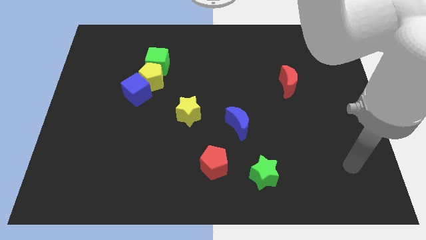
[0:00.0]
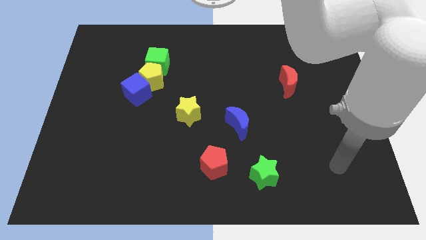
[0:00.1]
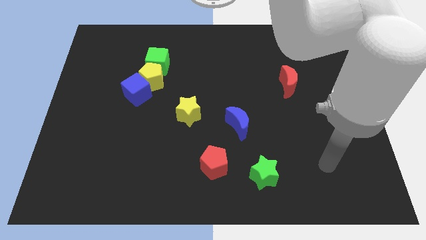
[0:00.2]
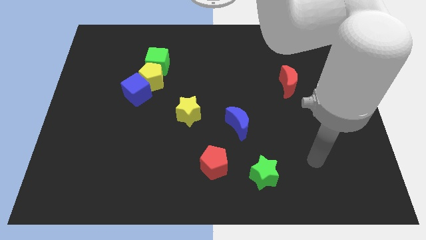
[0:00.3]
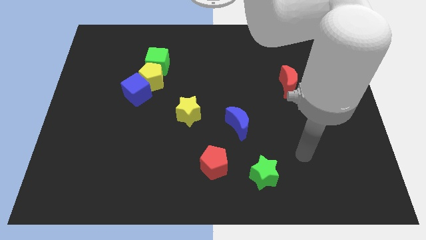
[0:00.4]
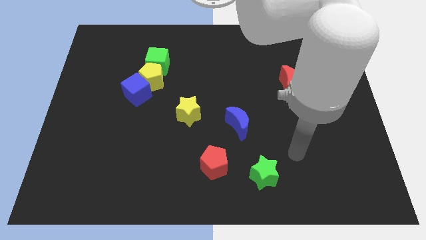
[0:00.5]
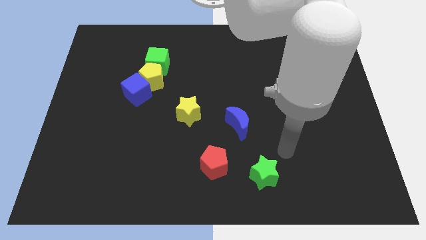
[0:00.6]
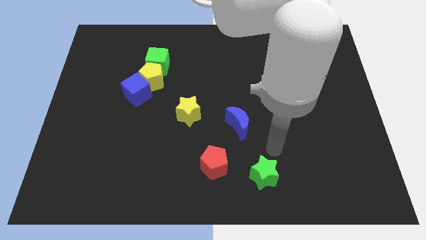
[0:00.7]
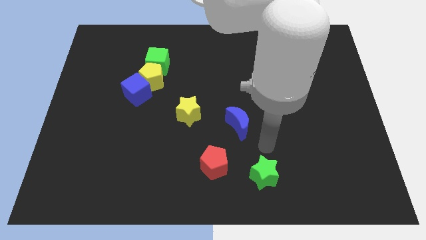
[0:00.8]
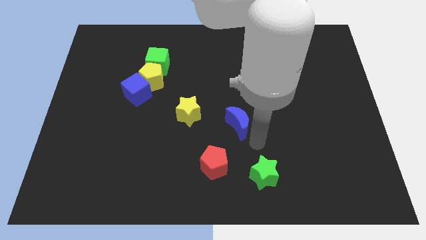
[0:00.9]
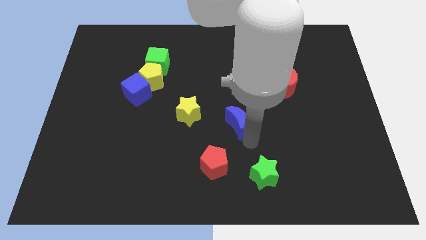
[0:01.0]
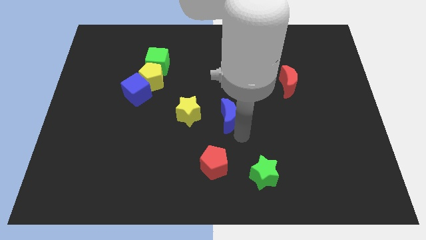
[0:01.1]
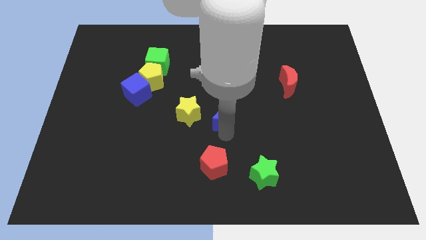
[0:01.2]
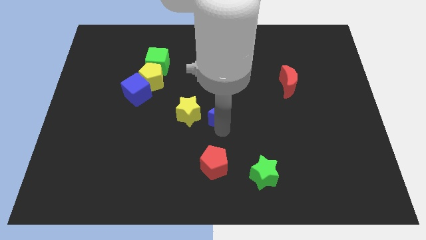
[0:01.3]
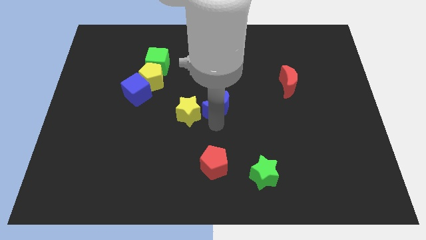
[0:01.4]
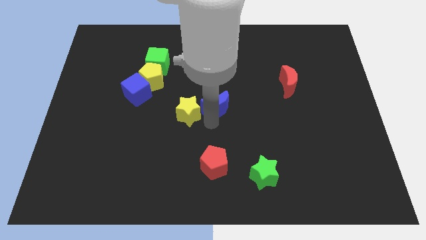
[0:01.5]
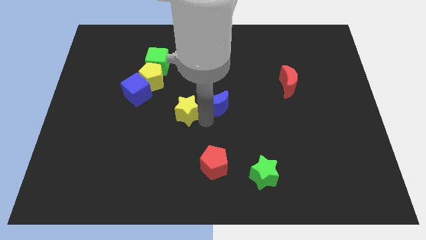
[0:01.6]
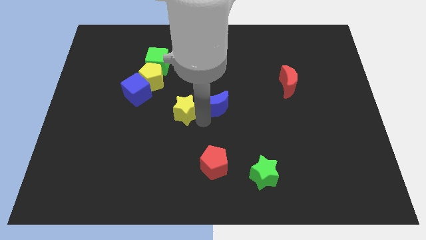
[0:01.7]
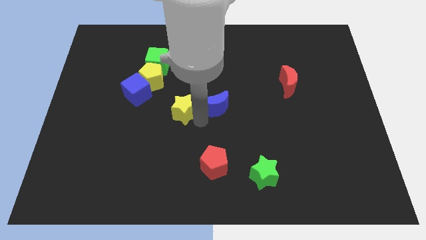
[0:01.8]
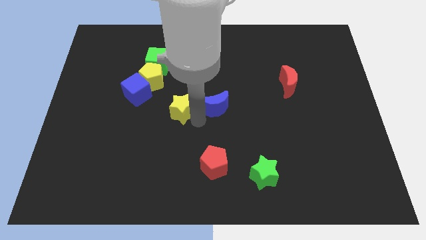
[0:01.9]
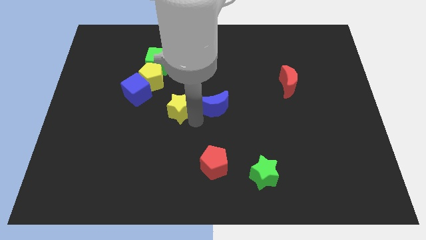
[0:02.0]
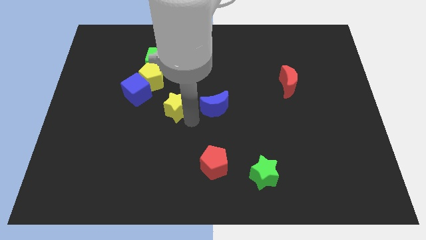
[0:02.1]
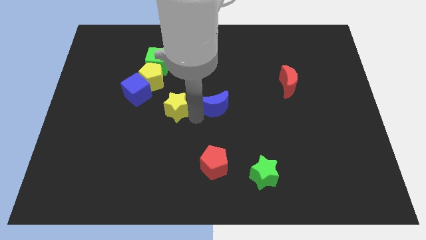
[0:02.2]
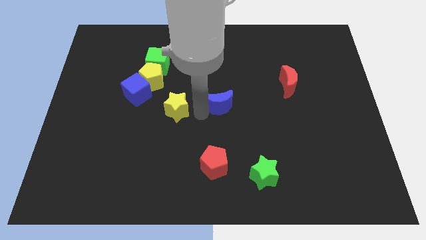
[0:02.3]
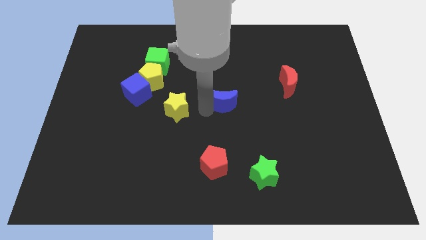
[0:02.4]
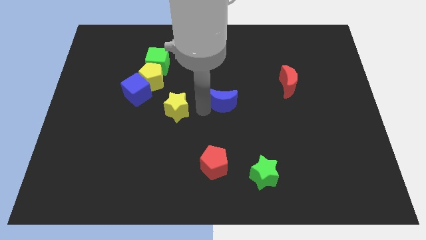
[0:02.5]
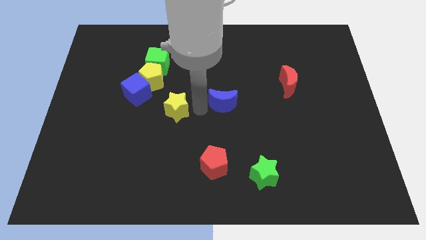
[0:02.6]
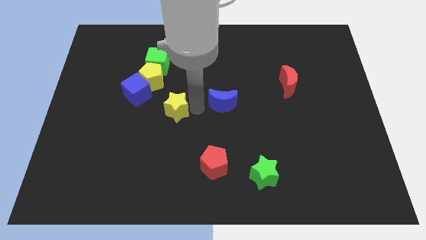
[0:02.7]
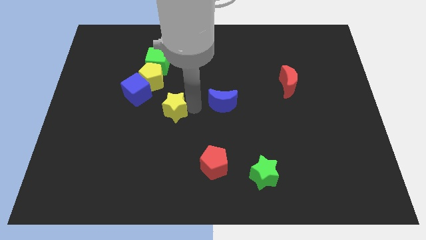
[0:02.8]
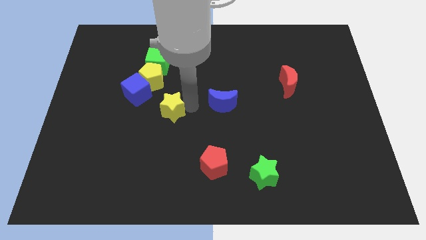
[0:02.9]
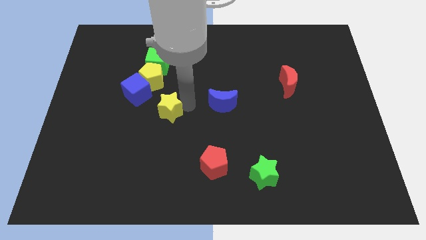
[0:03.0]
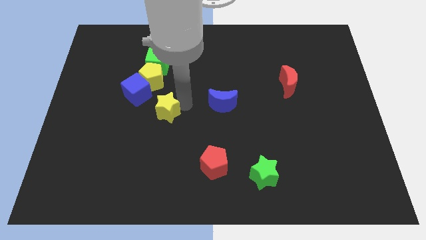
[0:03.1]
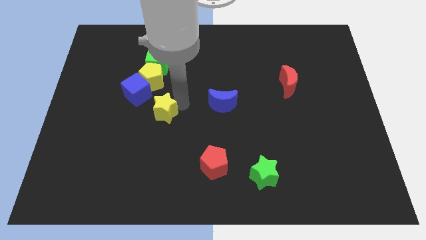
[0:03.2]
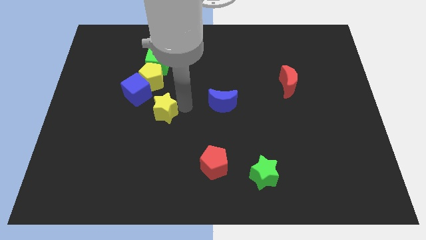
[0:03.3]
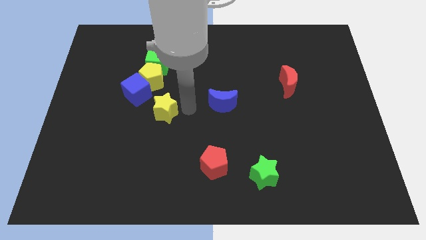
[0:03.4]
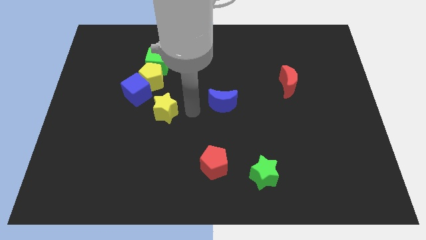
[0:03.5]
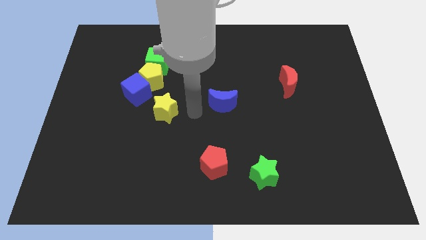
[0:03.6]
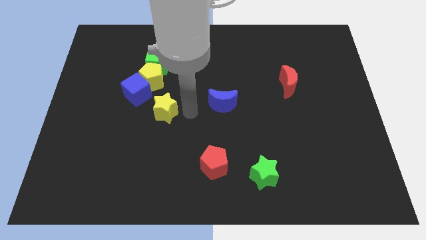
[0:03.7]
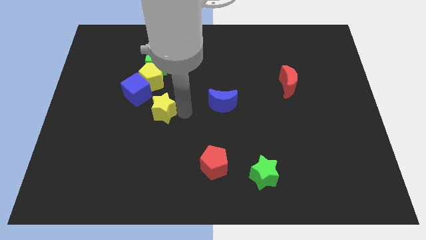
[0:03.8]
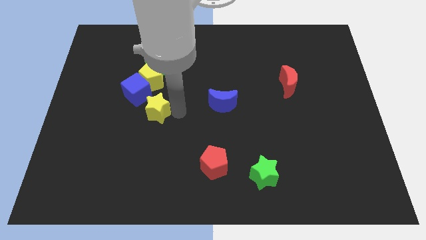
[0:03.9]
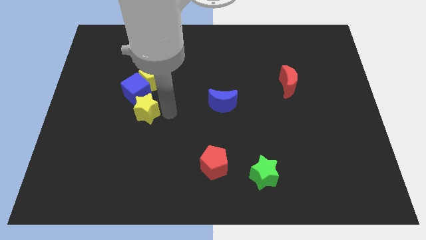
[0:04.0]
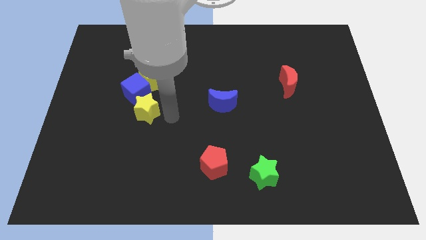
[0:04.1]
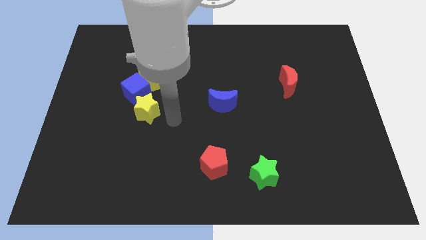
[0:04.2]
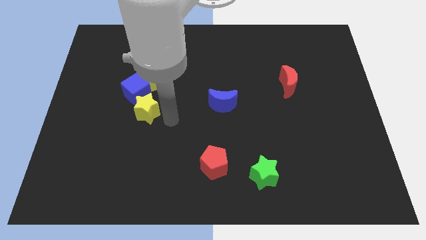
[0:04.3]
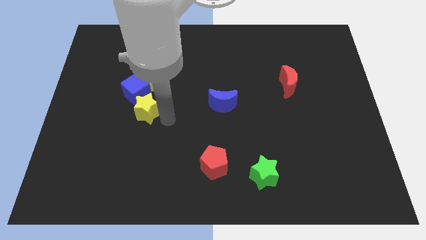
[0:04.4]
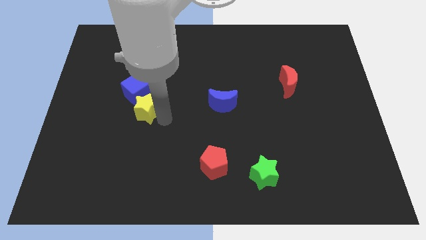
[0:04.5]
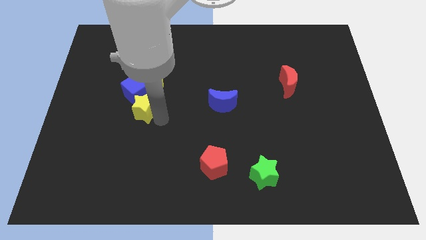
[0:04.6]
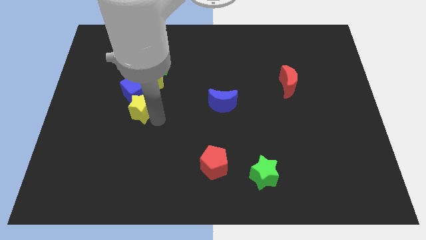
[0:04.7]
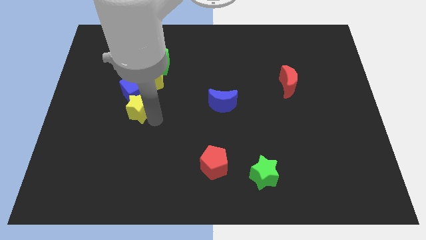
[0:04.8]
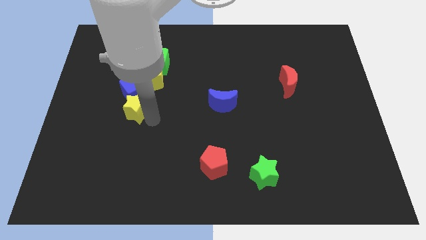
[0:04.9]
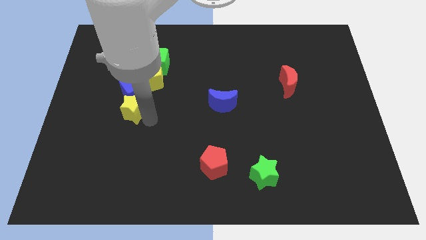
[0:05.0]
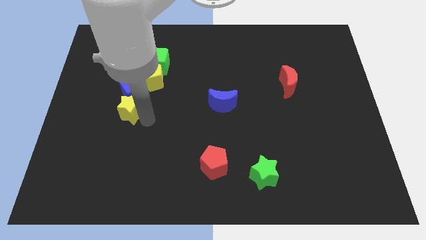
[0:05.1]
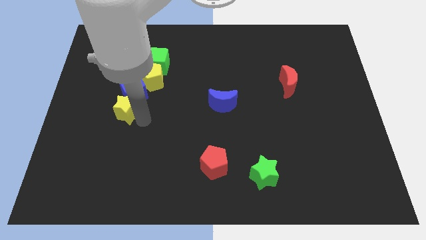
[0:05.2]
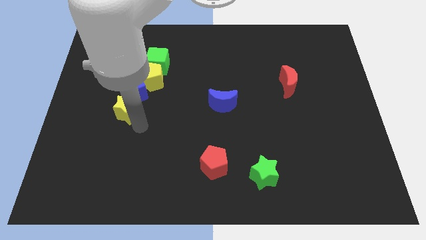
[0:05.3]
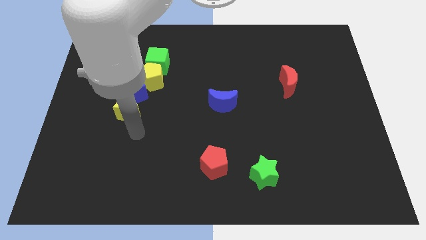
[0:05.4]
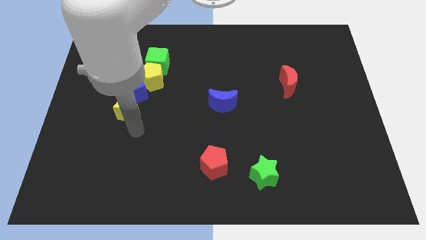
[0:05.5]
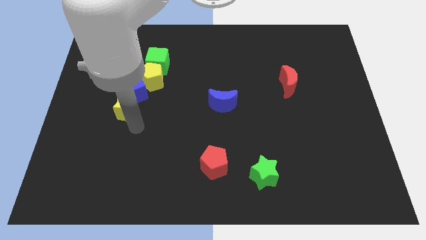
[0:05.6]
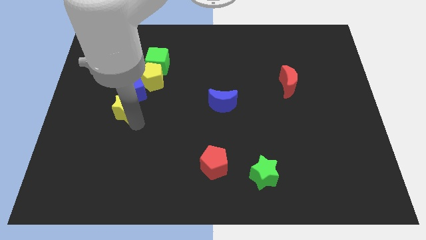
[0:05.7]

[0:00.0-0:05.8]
move the yellow star somewhat up and to the left

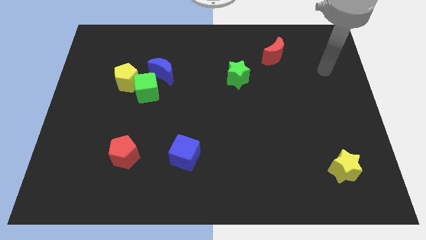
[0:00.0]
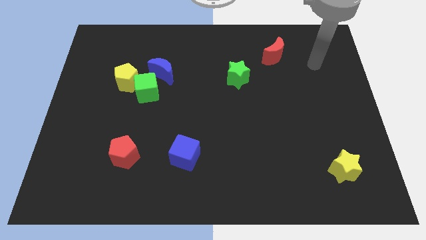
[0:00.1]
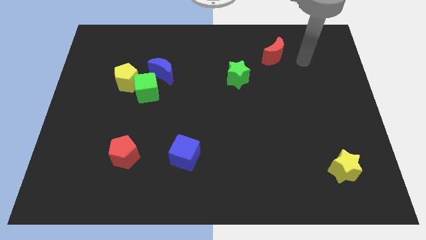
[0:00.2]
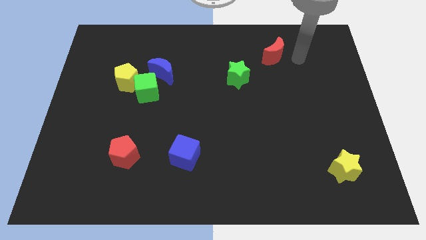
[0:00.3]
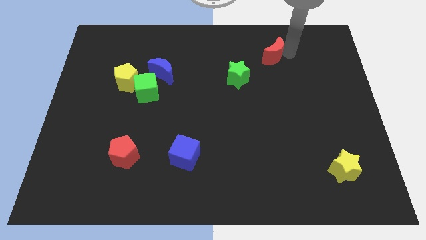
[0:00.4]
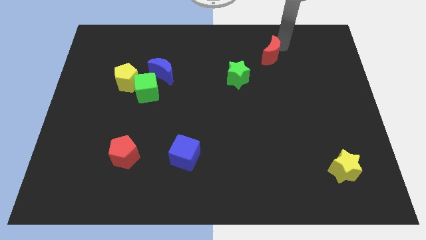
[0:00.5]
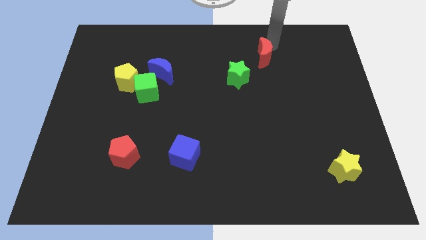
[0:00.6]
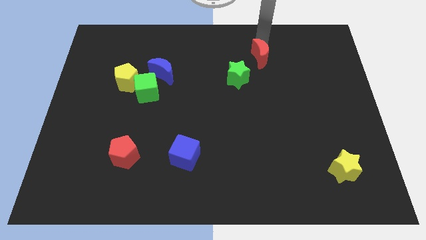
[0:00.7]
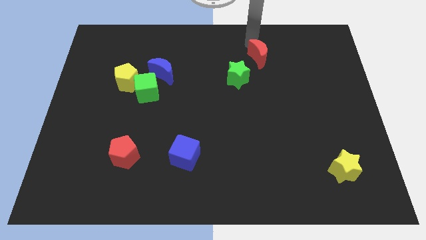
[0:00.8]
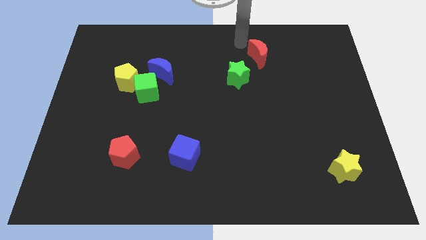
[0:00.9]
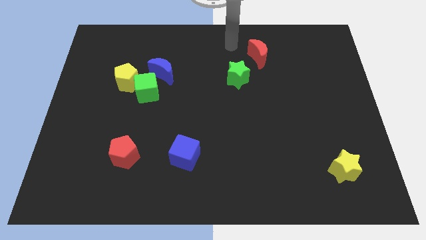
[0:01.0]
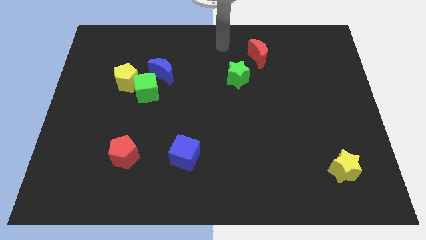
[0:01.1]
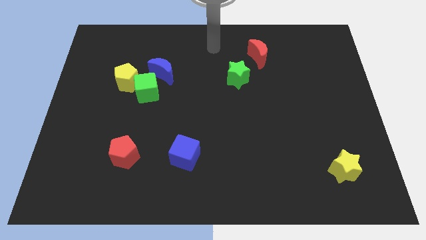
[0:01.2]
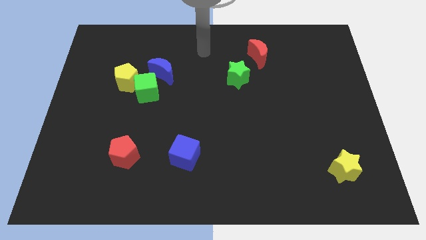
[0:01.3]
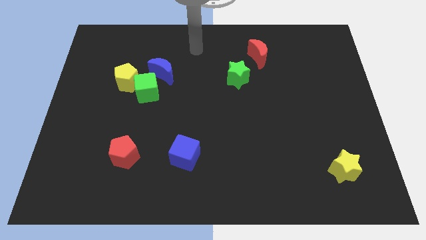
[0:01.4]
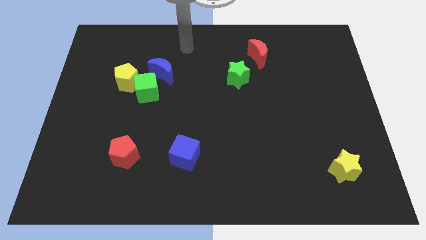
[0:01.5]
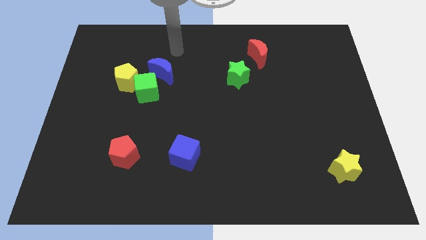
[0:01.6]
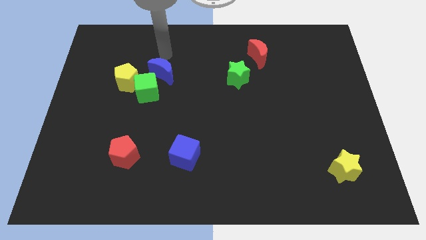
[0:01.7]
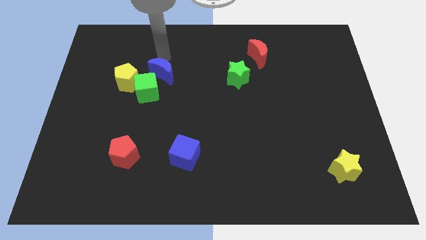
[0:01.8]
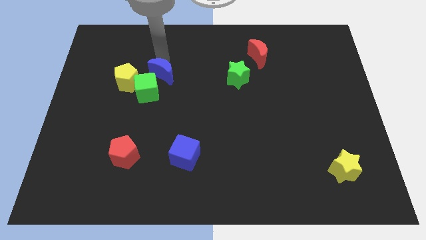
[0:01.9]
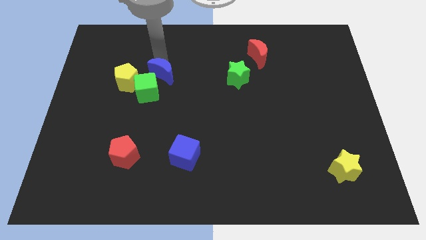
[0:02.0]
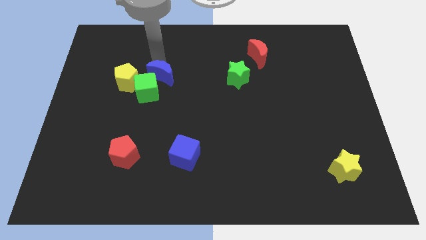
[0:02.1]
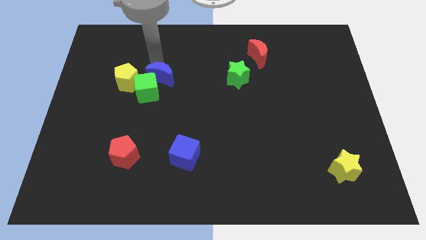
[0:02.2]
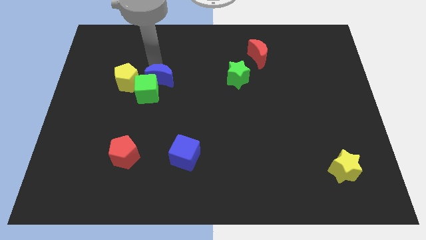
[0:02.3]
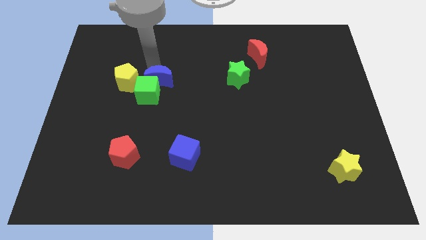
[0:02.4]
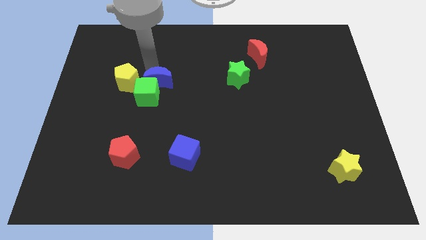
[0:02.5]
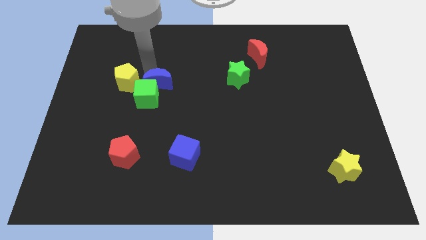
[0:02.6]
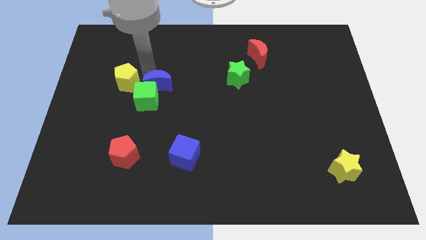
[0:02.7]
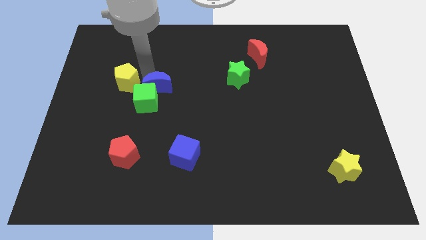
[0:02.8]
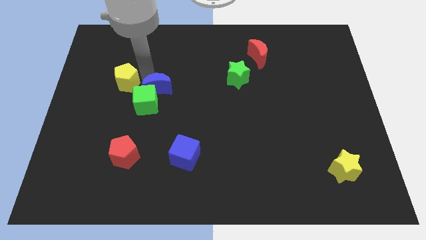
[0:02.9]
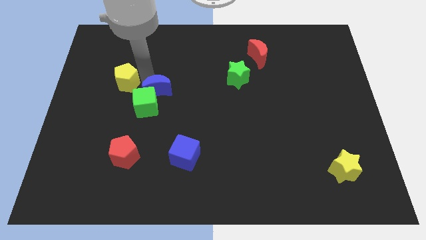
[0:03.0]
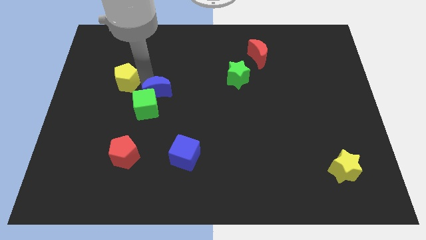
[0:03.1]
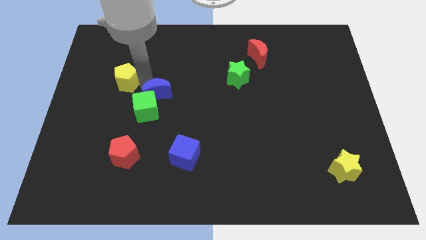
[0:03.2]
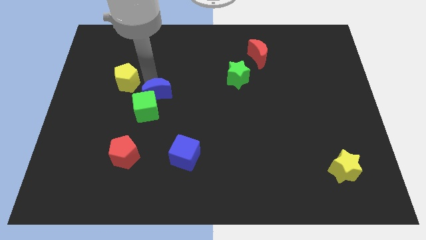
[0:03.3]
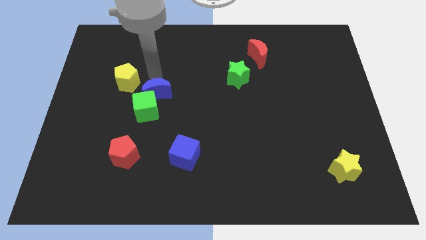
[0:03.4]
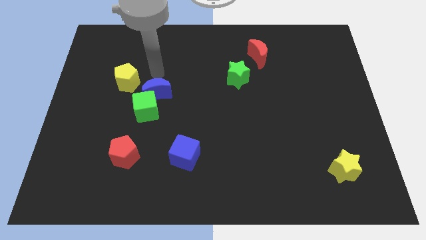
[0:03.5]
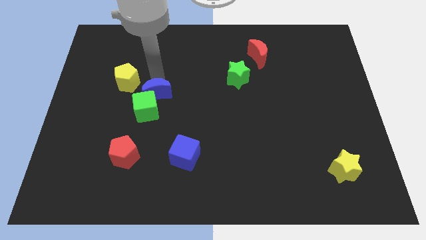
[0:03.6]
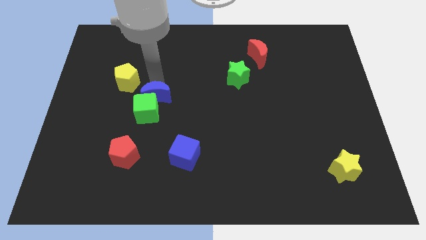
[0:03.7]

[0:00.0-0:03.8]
slightly move the blue moon down
